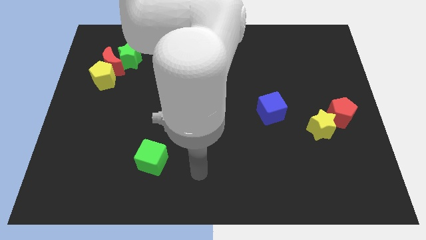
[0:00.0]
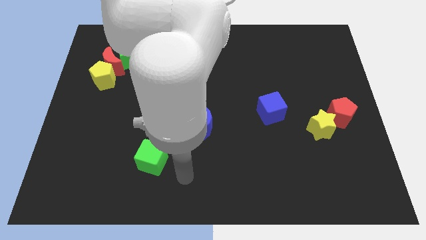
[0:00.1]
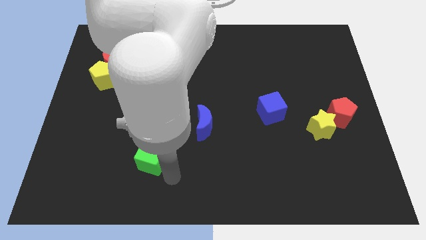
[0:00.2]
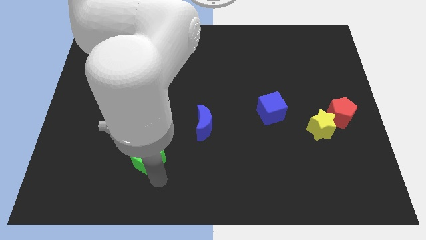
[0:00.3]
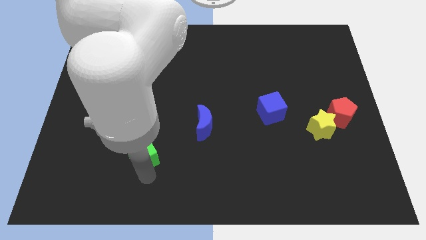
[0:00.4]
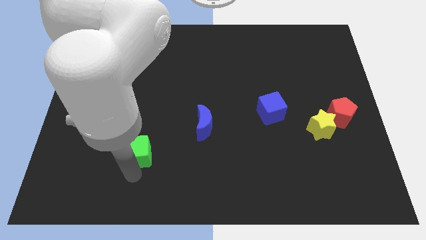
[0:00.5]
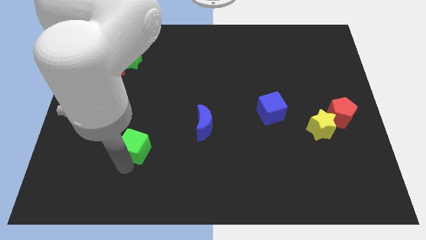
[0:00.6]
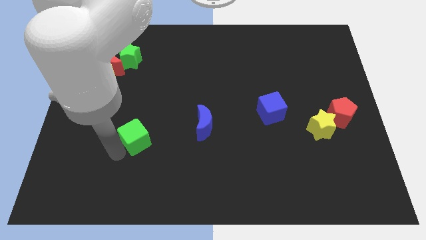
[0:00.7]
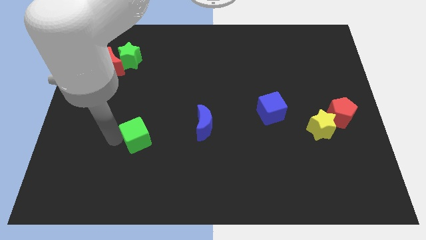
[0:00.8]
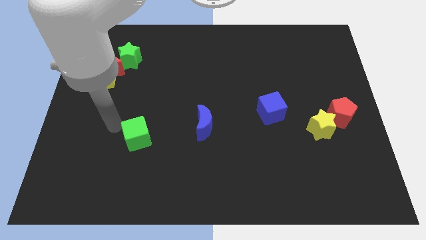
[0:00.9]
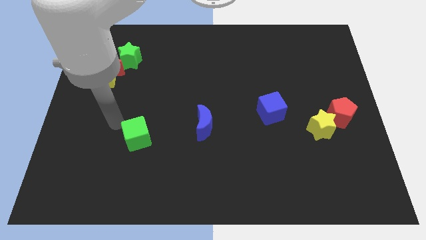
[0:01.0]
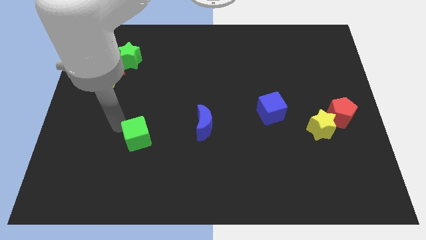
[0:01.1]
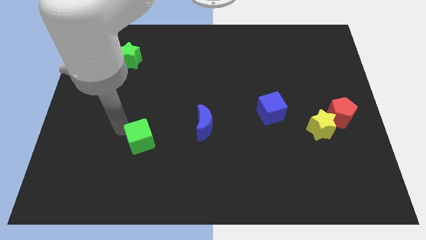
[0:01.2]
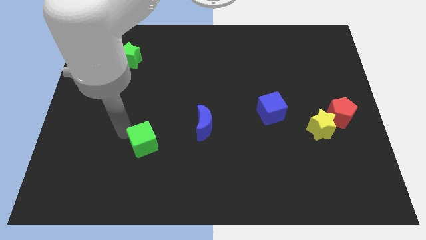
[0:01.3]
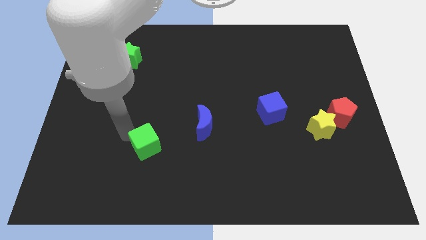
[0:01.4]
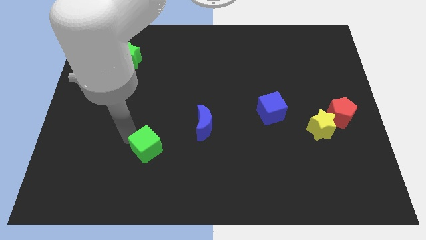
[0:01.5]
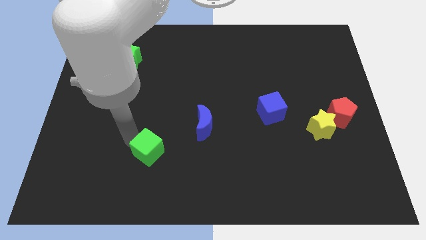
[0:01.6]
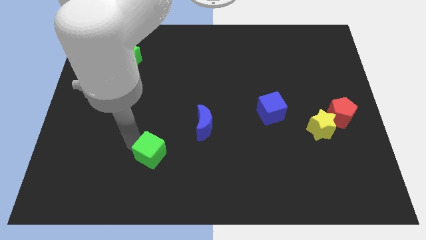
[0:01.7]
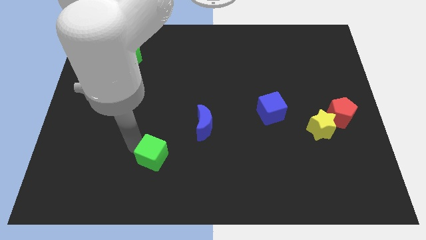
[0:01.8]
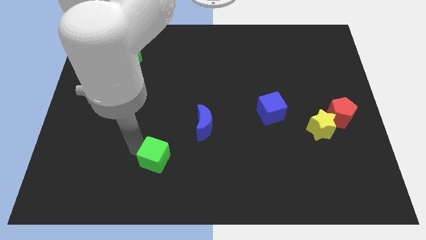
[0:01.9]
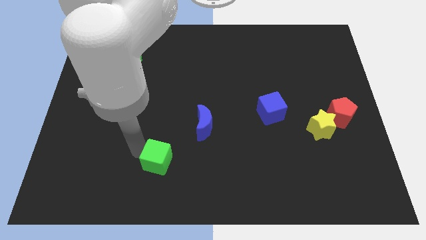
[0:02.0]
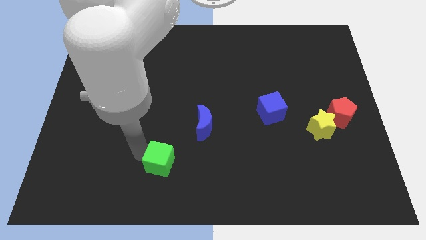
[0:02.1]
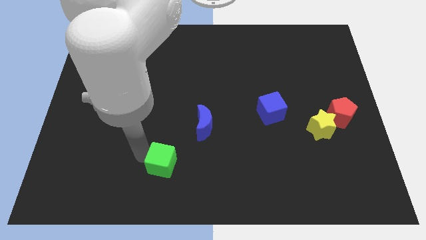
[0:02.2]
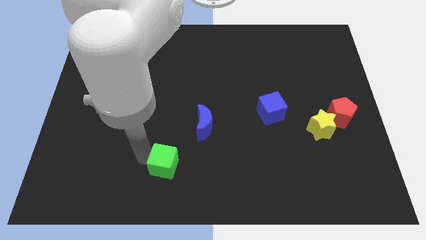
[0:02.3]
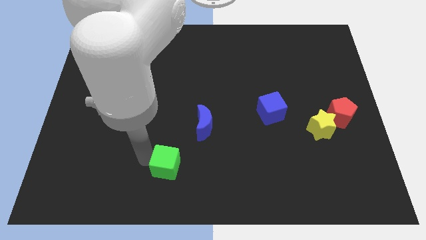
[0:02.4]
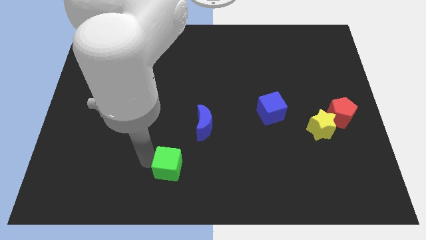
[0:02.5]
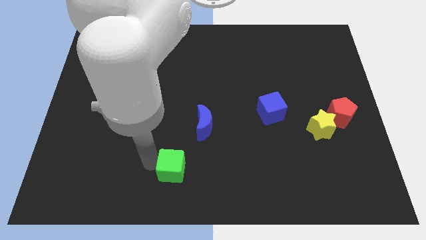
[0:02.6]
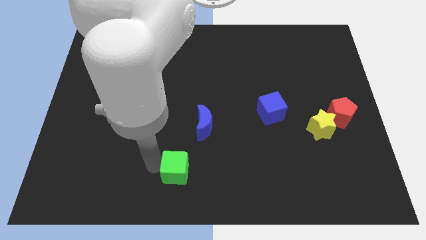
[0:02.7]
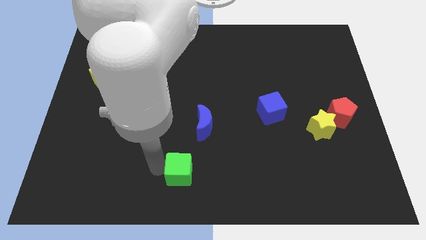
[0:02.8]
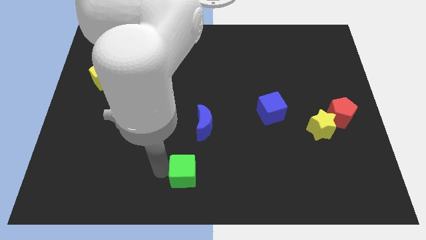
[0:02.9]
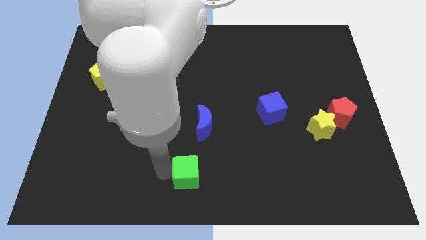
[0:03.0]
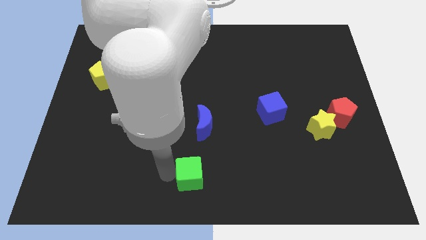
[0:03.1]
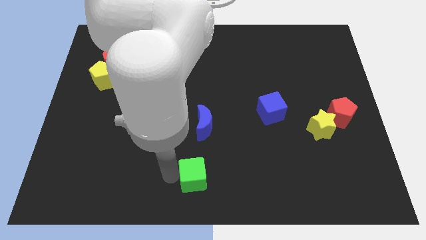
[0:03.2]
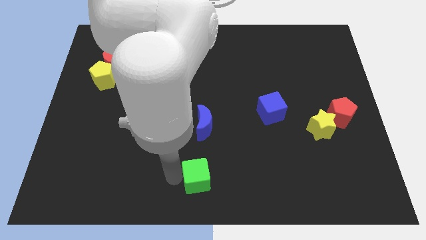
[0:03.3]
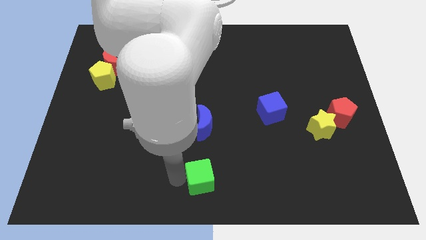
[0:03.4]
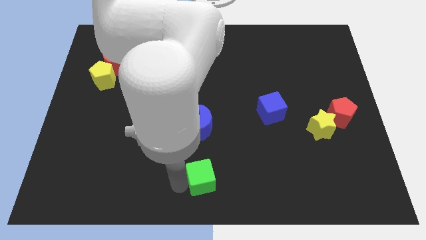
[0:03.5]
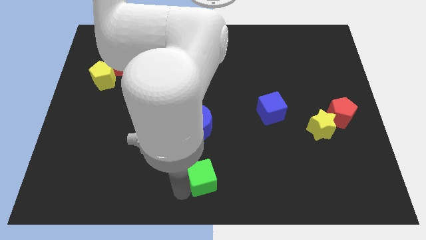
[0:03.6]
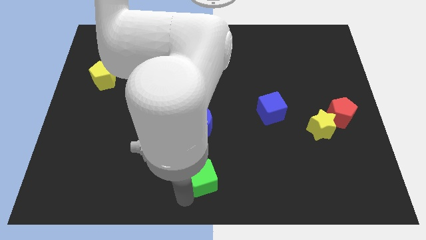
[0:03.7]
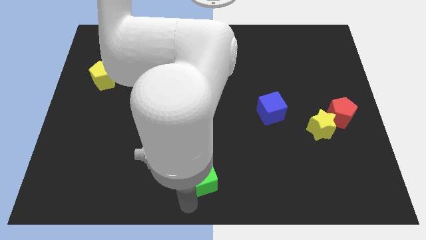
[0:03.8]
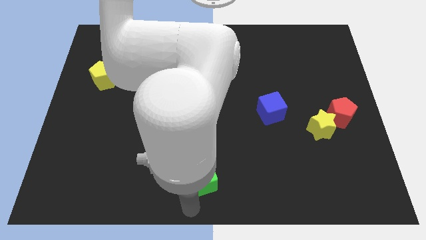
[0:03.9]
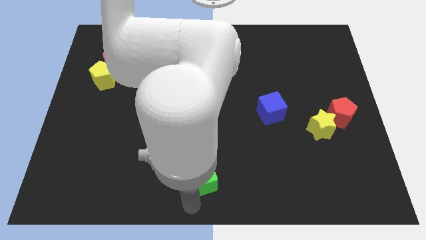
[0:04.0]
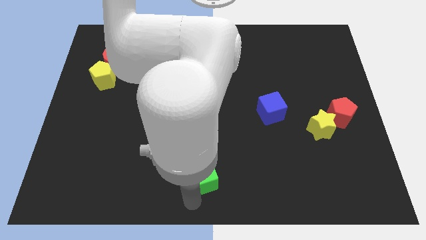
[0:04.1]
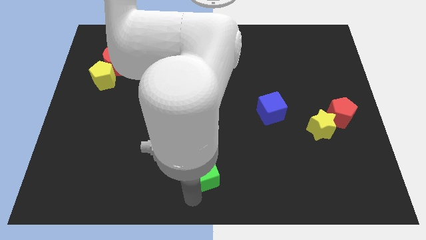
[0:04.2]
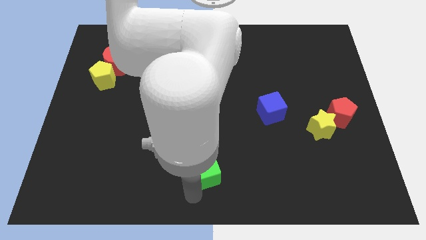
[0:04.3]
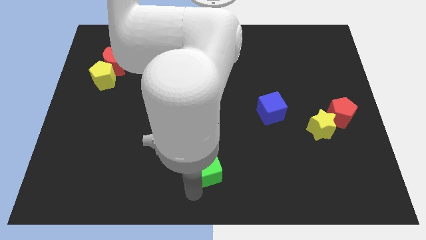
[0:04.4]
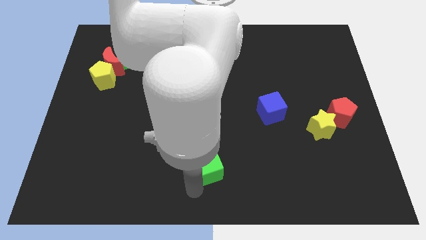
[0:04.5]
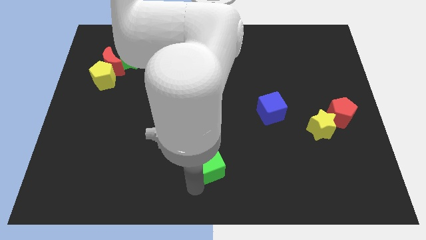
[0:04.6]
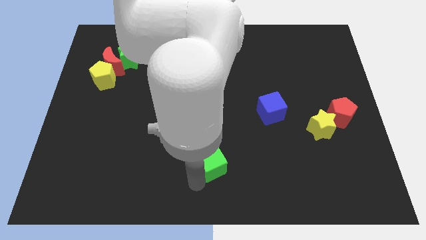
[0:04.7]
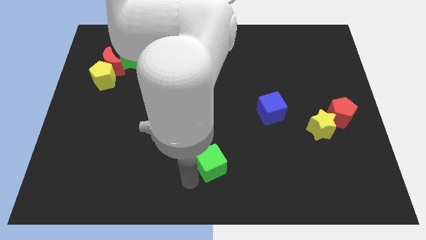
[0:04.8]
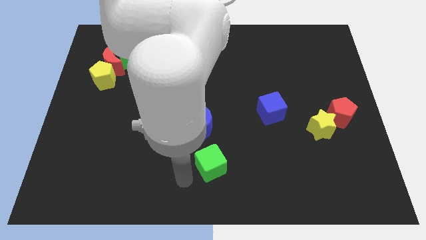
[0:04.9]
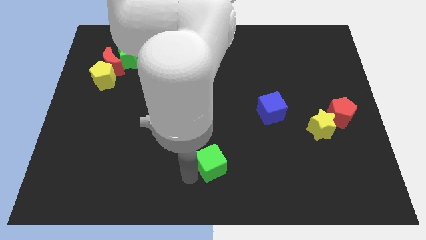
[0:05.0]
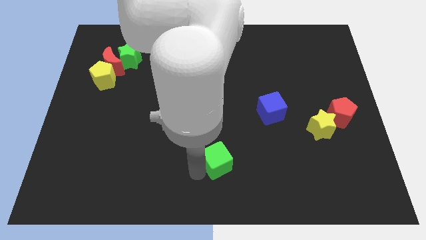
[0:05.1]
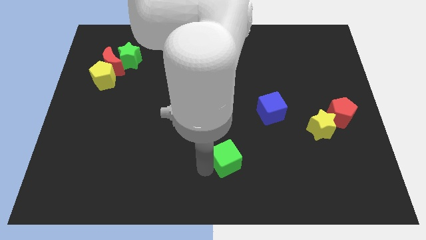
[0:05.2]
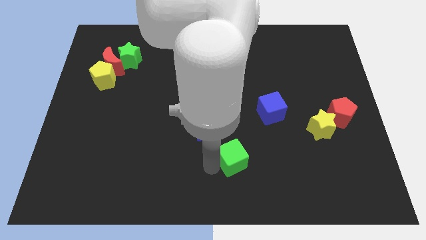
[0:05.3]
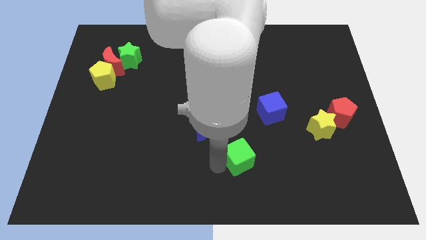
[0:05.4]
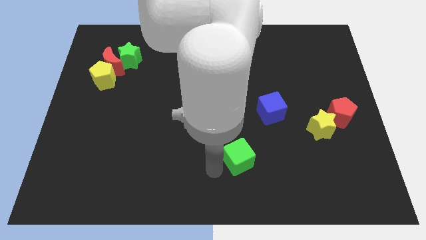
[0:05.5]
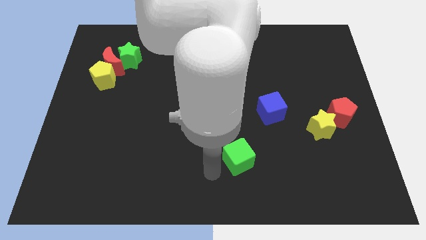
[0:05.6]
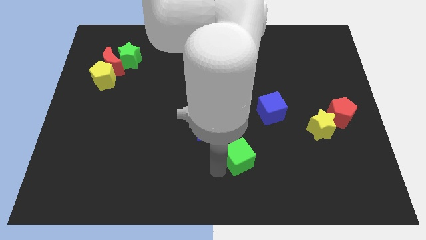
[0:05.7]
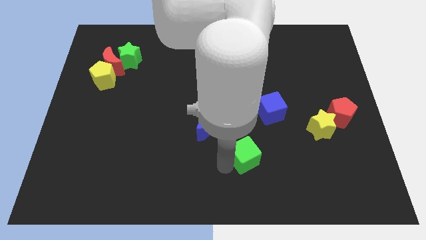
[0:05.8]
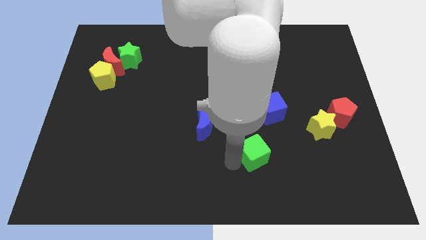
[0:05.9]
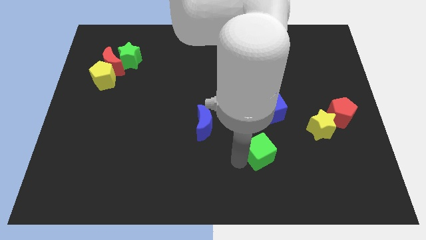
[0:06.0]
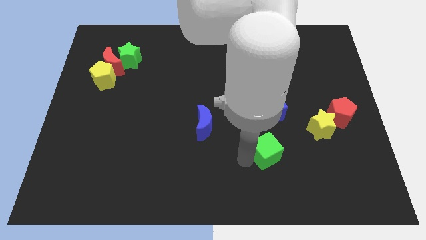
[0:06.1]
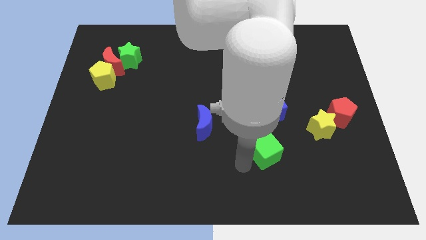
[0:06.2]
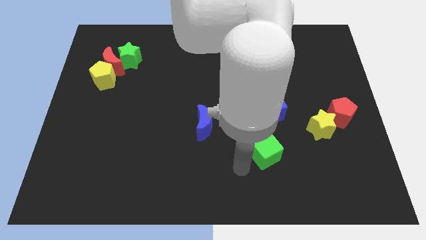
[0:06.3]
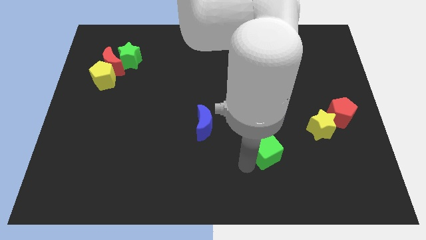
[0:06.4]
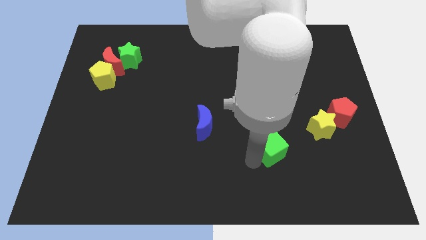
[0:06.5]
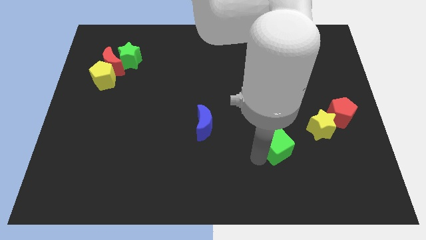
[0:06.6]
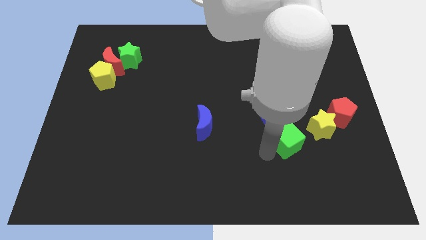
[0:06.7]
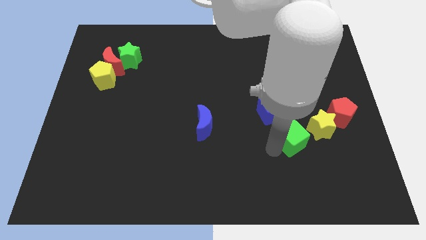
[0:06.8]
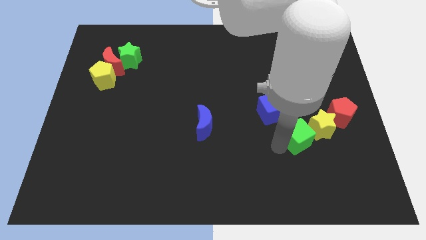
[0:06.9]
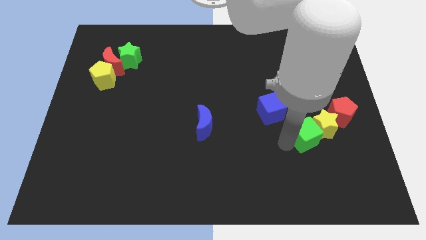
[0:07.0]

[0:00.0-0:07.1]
slide the green cube to the yellow star

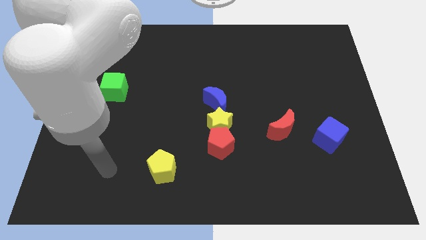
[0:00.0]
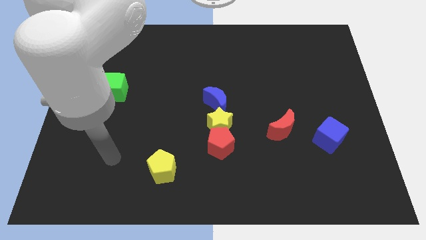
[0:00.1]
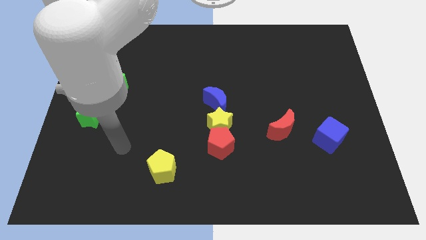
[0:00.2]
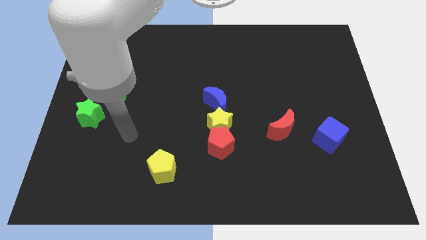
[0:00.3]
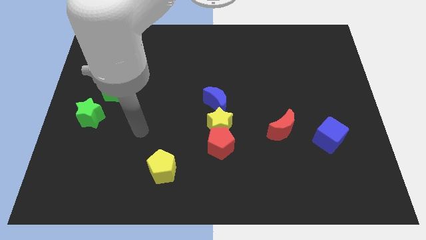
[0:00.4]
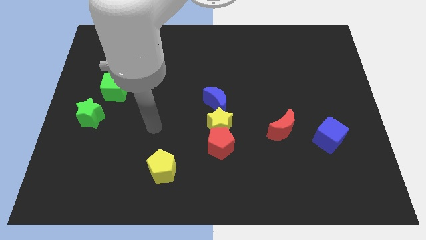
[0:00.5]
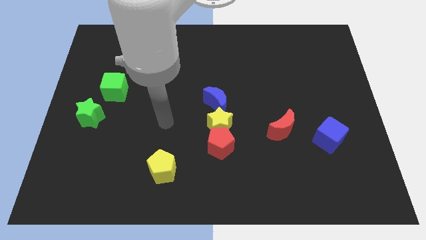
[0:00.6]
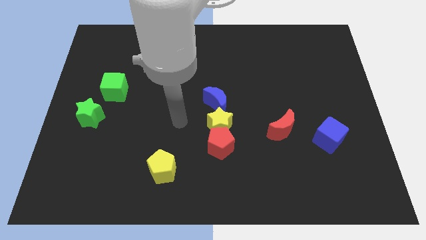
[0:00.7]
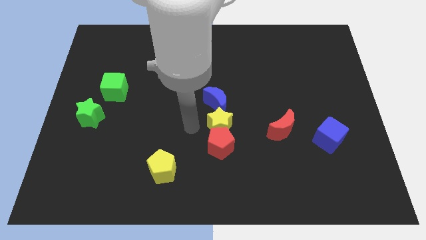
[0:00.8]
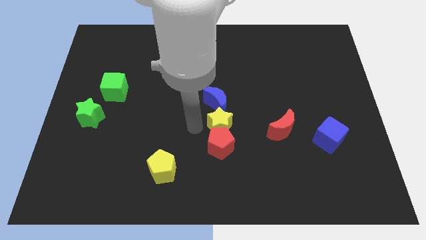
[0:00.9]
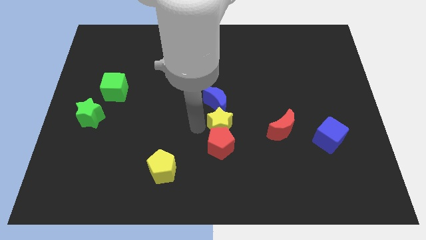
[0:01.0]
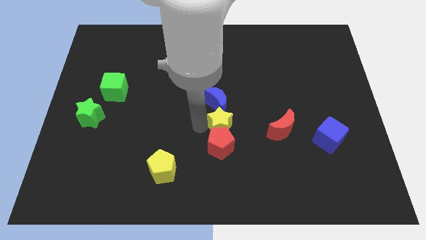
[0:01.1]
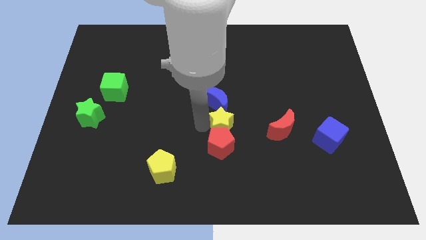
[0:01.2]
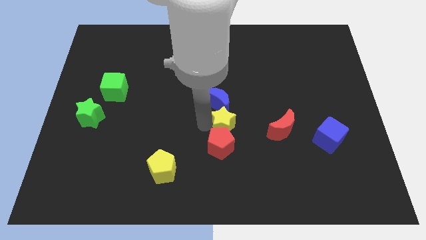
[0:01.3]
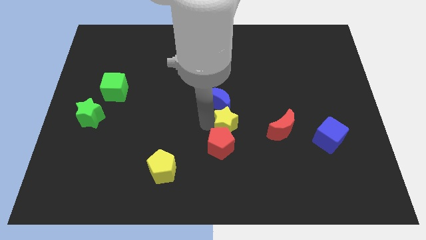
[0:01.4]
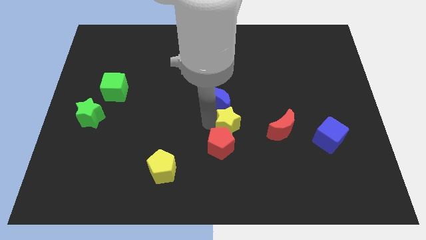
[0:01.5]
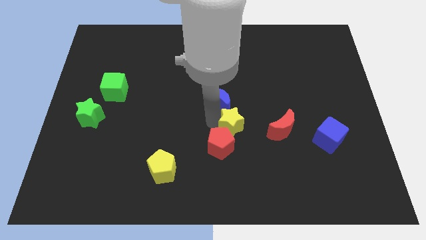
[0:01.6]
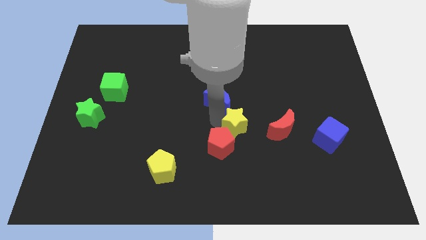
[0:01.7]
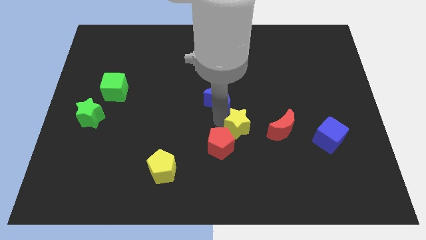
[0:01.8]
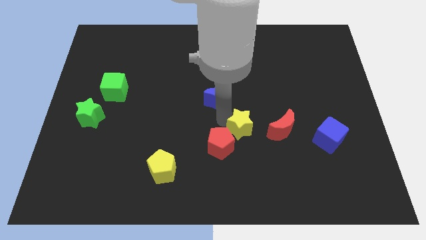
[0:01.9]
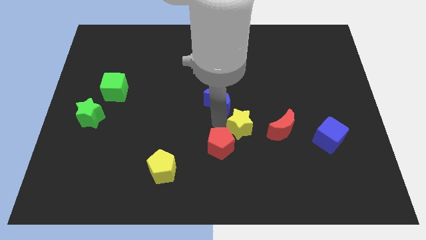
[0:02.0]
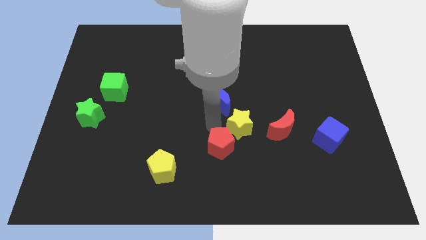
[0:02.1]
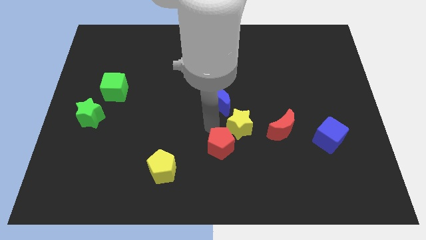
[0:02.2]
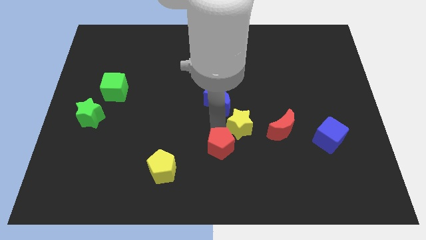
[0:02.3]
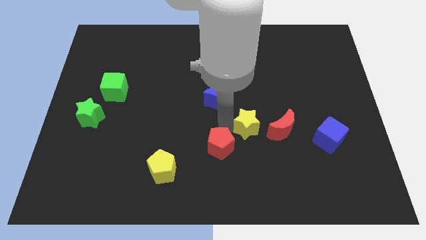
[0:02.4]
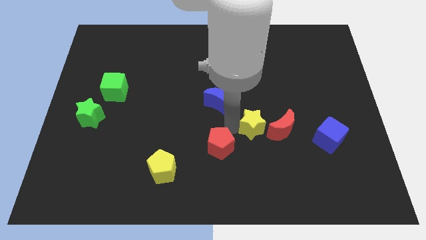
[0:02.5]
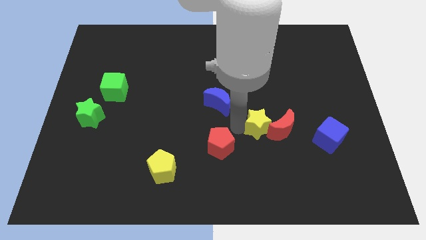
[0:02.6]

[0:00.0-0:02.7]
put the yellow star towards the red moon
